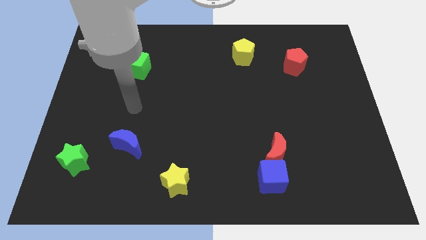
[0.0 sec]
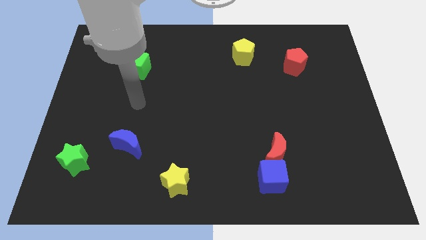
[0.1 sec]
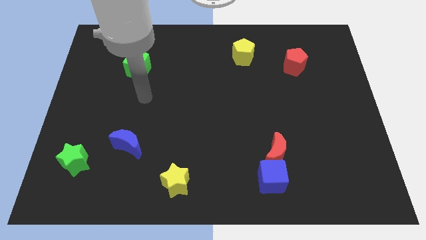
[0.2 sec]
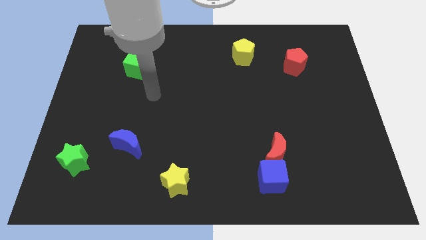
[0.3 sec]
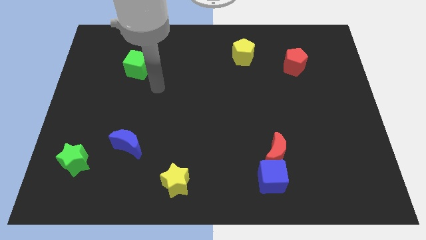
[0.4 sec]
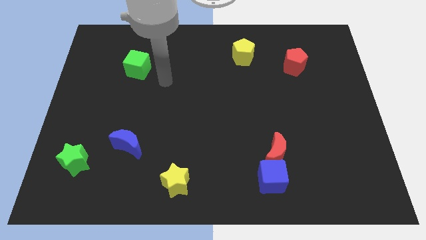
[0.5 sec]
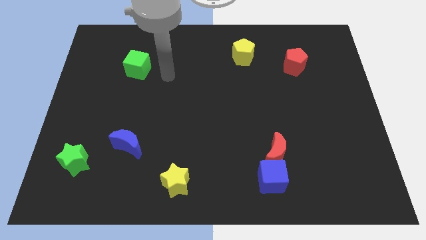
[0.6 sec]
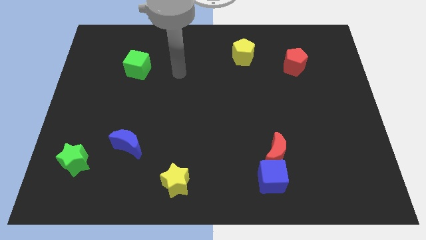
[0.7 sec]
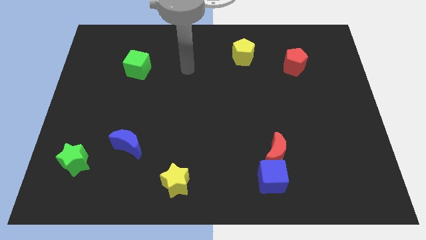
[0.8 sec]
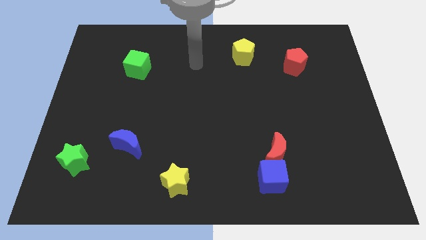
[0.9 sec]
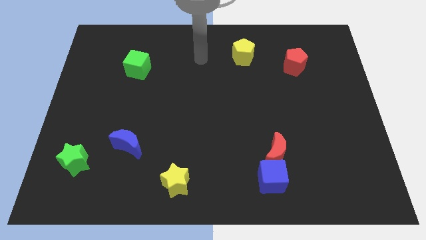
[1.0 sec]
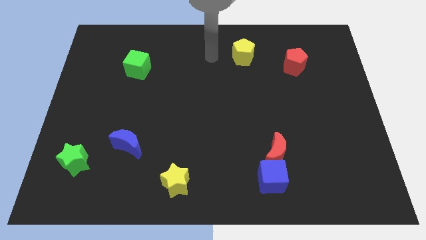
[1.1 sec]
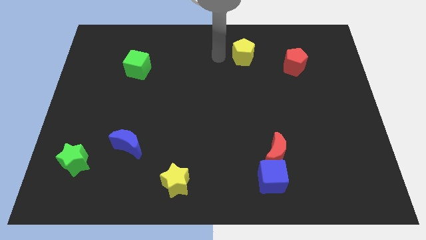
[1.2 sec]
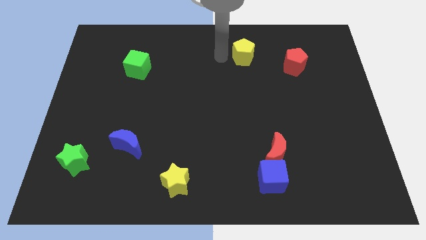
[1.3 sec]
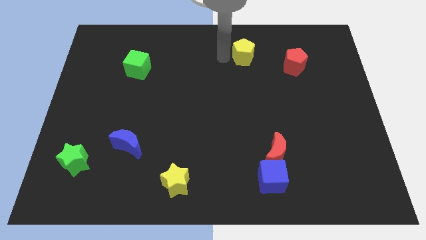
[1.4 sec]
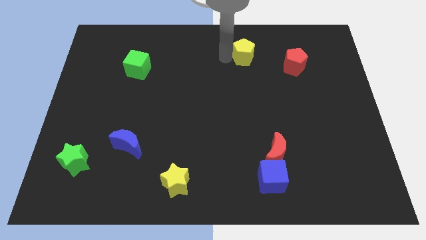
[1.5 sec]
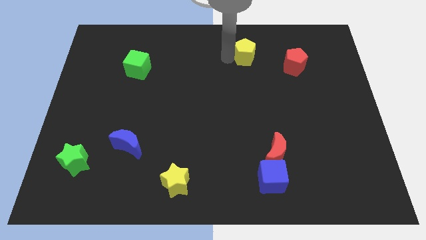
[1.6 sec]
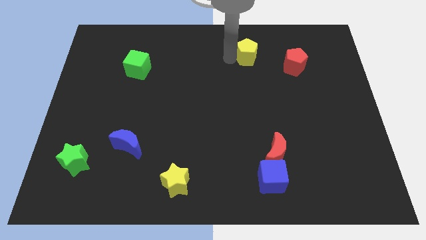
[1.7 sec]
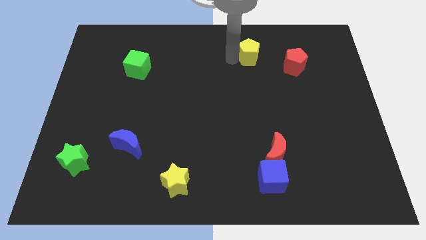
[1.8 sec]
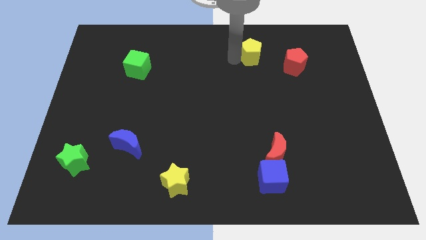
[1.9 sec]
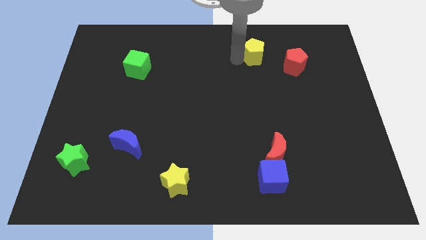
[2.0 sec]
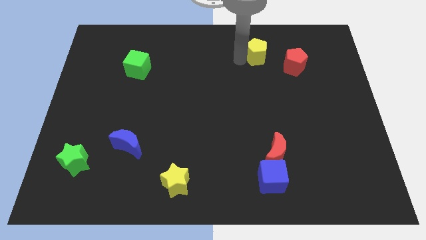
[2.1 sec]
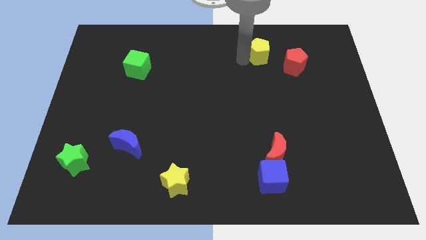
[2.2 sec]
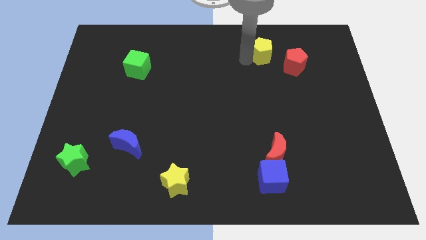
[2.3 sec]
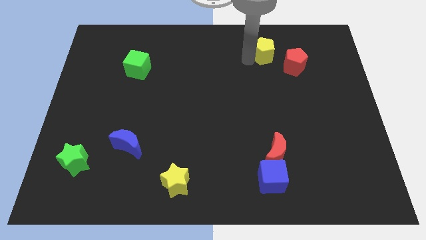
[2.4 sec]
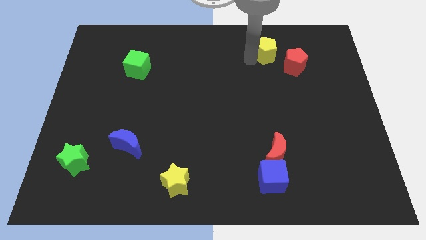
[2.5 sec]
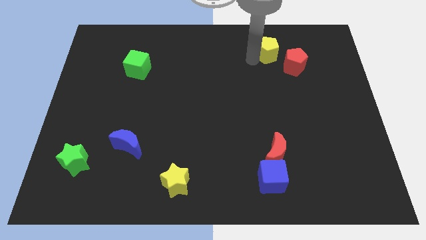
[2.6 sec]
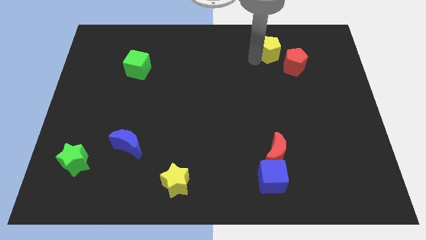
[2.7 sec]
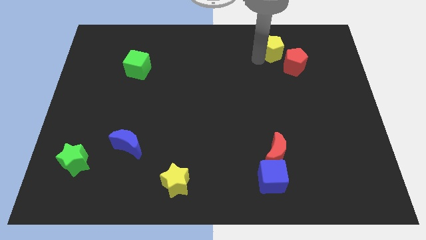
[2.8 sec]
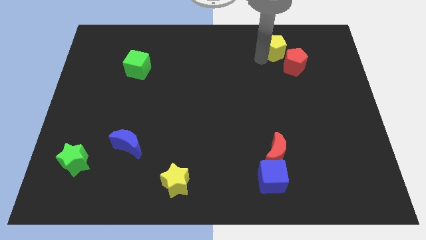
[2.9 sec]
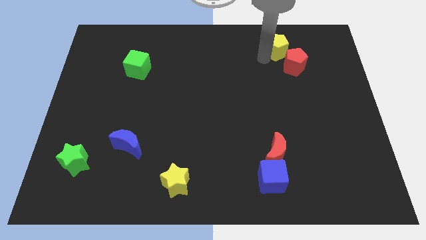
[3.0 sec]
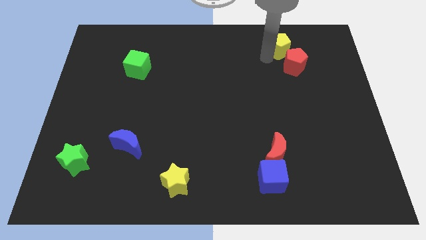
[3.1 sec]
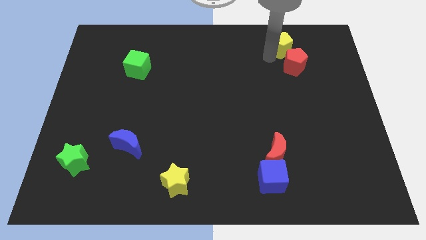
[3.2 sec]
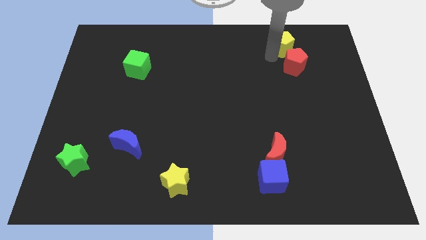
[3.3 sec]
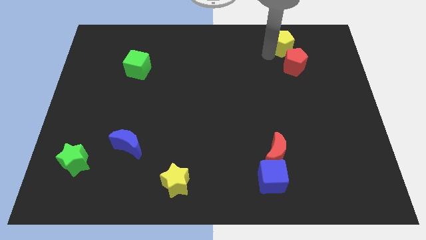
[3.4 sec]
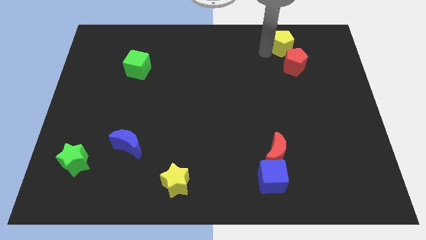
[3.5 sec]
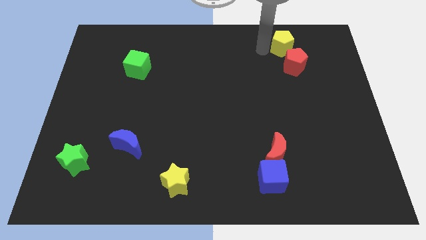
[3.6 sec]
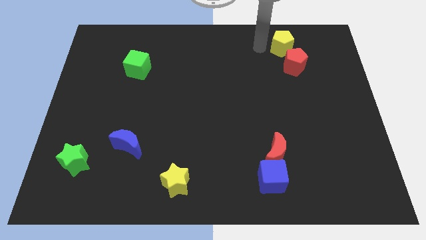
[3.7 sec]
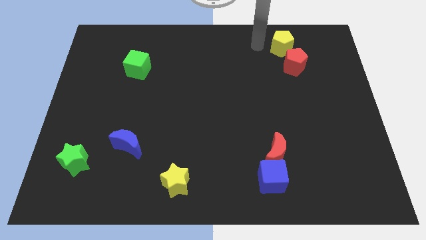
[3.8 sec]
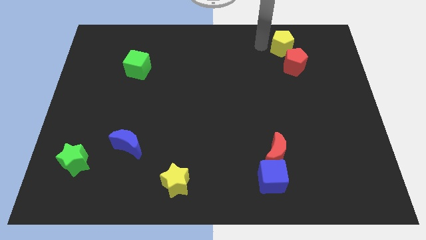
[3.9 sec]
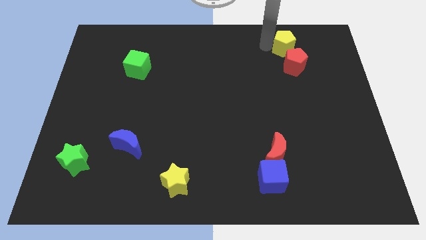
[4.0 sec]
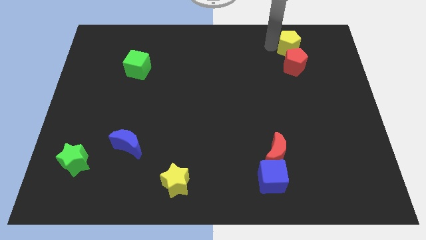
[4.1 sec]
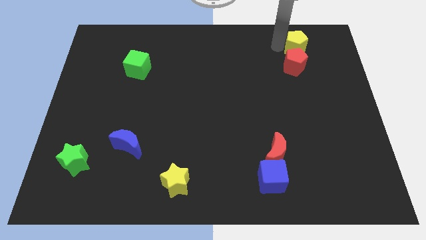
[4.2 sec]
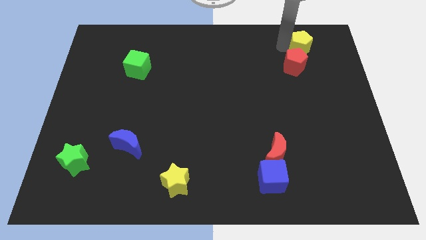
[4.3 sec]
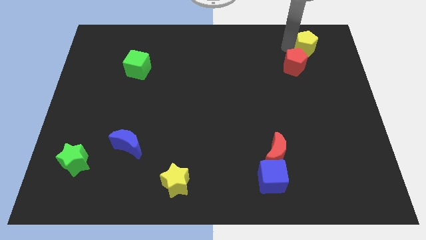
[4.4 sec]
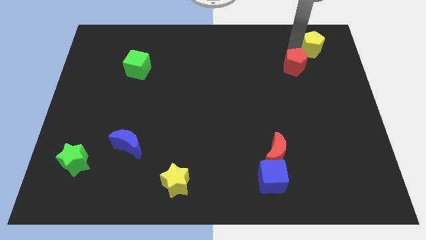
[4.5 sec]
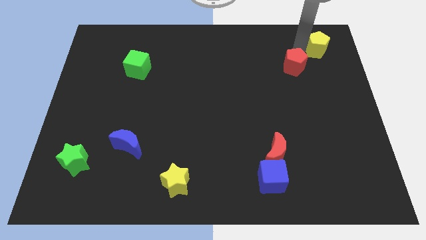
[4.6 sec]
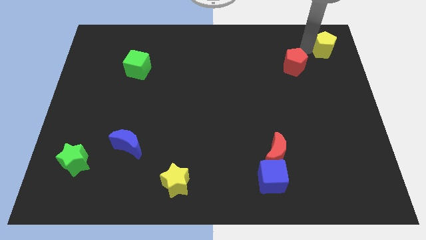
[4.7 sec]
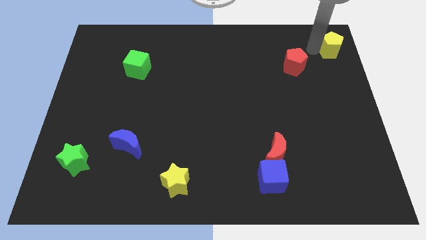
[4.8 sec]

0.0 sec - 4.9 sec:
push the yellow pentagon to the top right corner

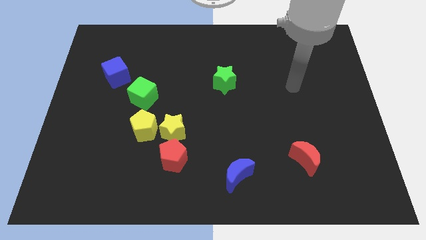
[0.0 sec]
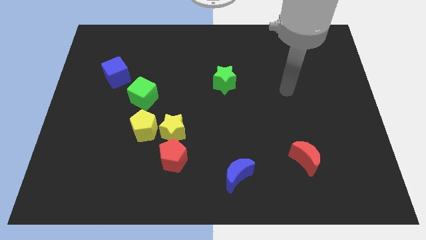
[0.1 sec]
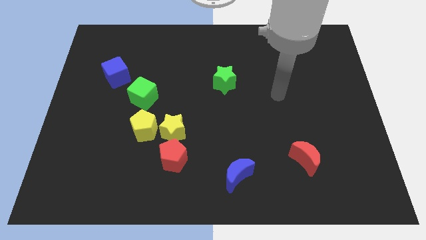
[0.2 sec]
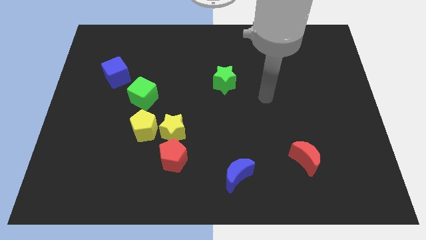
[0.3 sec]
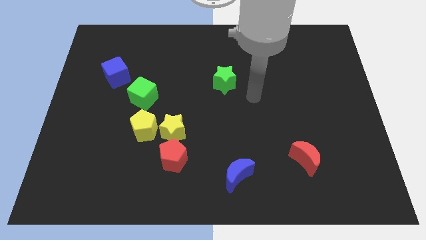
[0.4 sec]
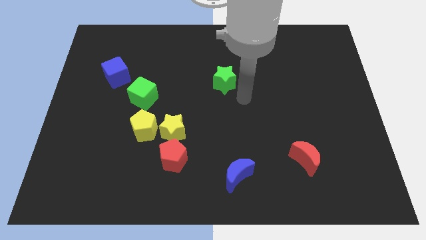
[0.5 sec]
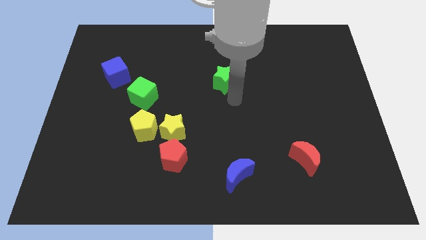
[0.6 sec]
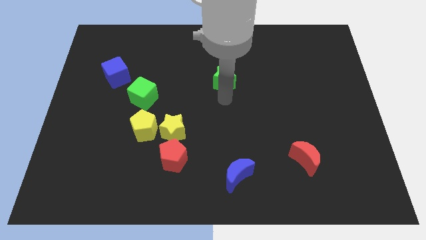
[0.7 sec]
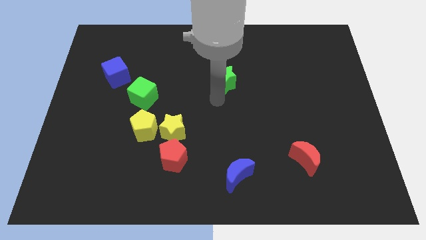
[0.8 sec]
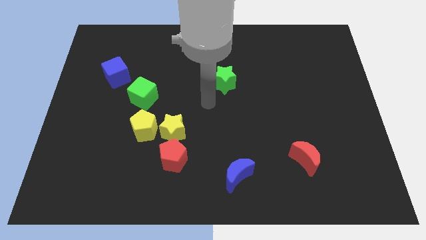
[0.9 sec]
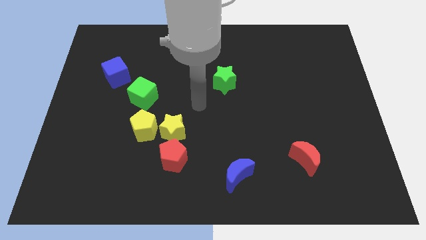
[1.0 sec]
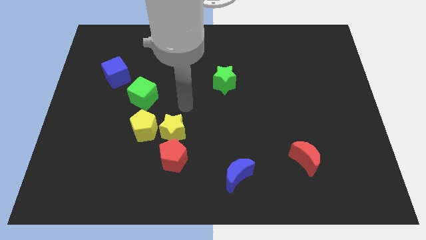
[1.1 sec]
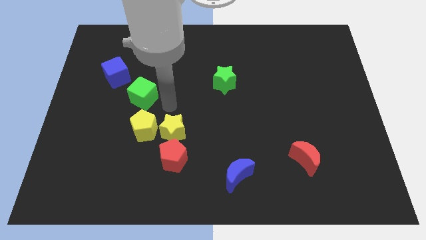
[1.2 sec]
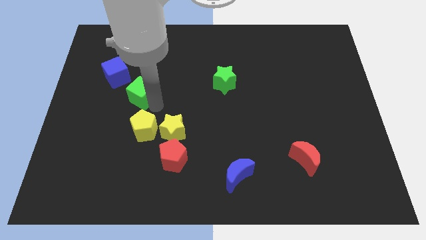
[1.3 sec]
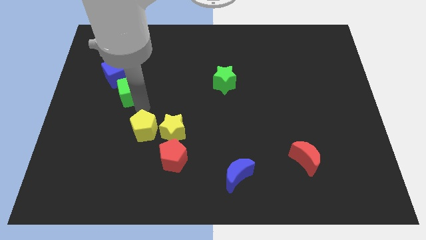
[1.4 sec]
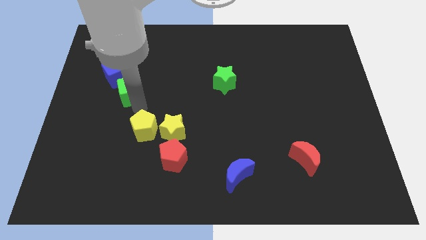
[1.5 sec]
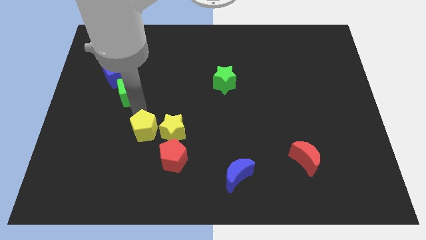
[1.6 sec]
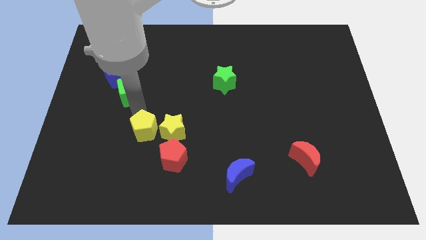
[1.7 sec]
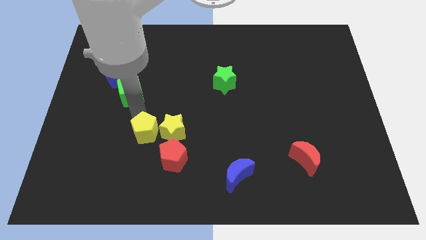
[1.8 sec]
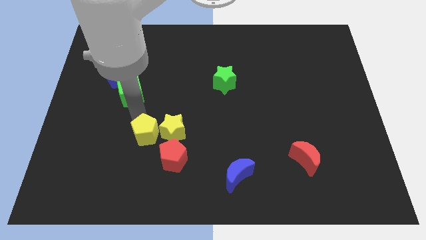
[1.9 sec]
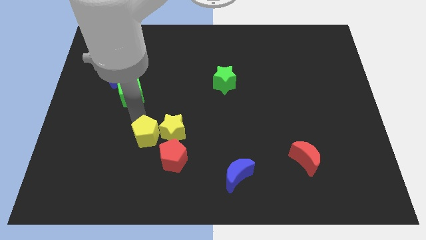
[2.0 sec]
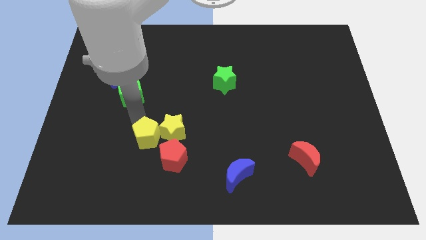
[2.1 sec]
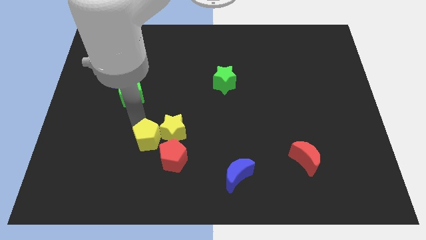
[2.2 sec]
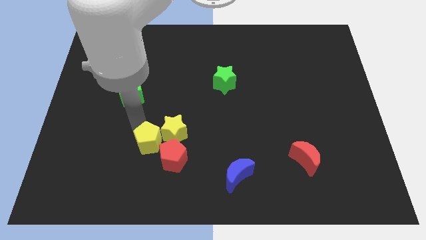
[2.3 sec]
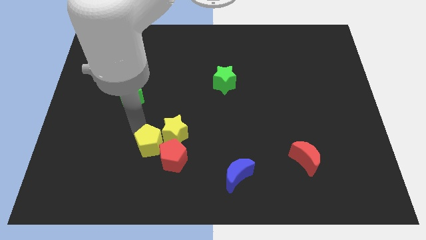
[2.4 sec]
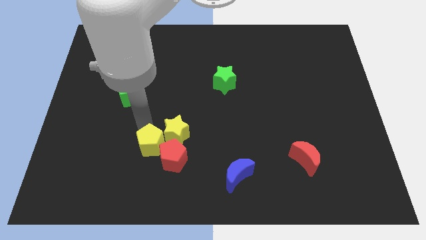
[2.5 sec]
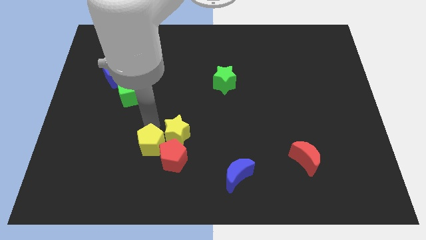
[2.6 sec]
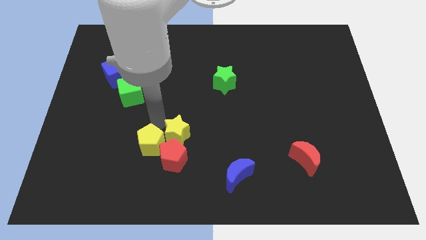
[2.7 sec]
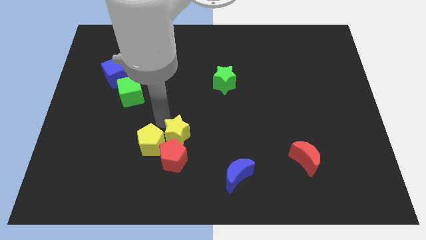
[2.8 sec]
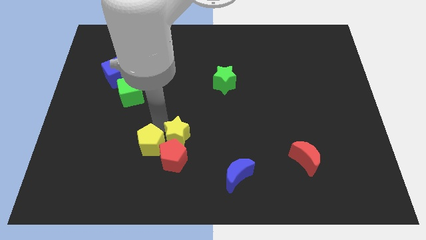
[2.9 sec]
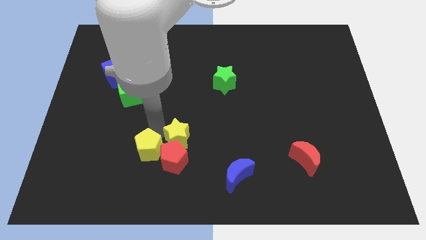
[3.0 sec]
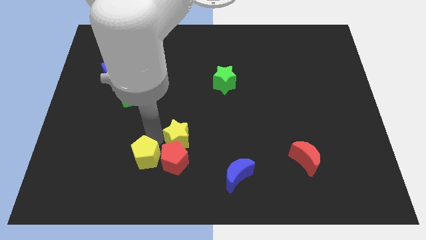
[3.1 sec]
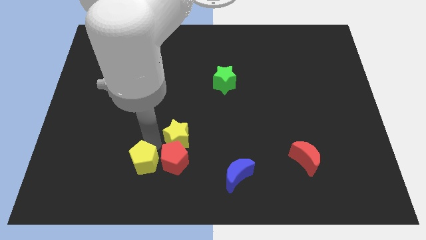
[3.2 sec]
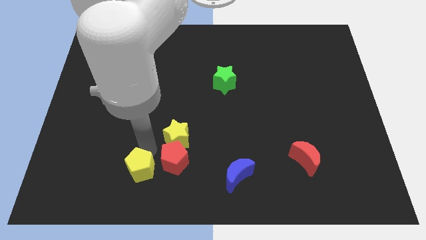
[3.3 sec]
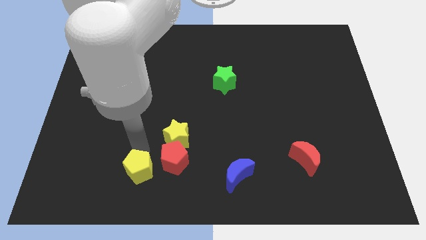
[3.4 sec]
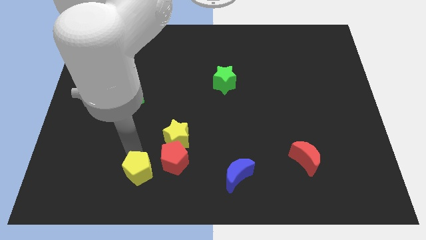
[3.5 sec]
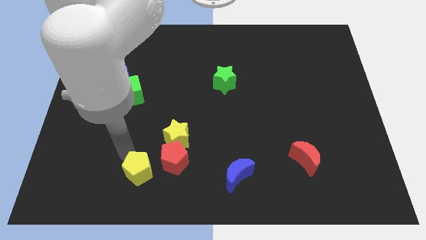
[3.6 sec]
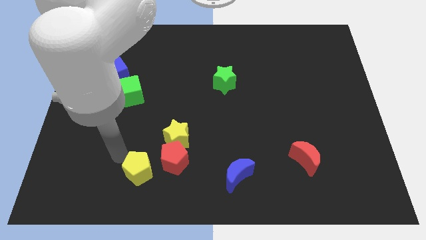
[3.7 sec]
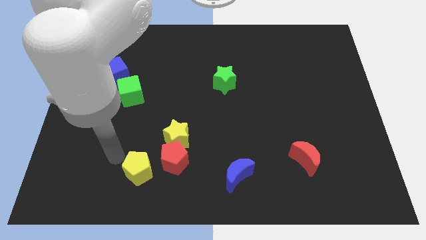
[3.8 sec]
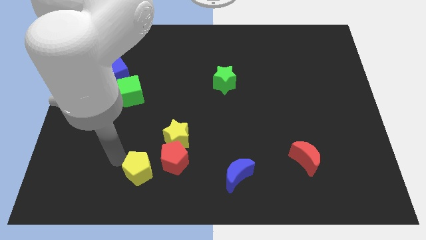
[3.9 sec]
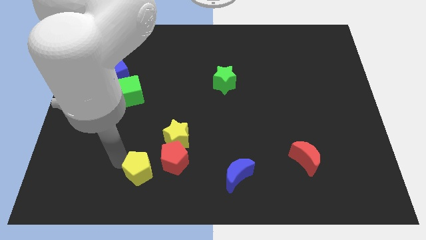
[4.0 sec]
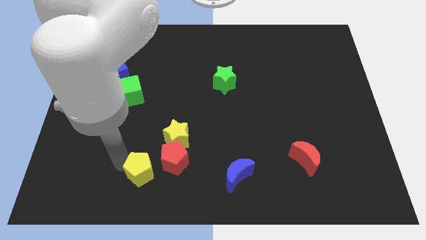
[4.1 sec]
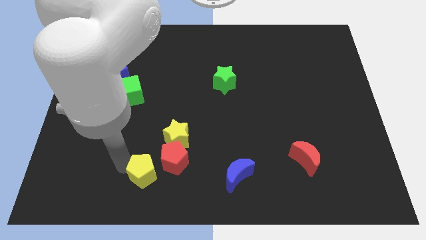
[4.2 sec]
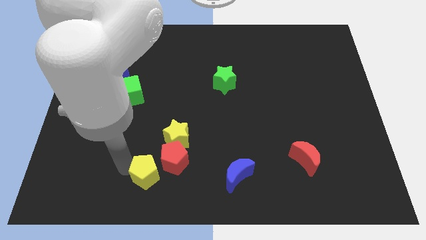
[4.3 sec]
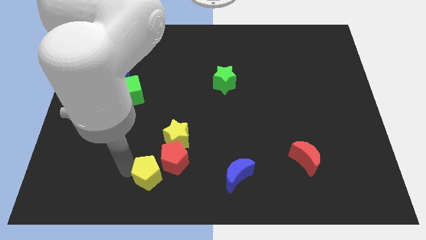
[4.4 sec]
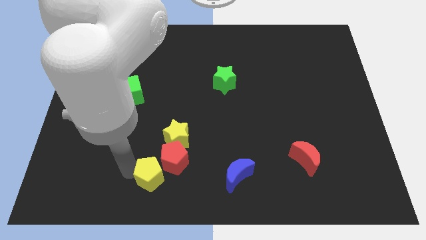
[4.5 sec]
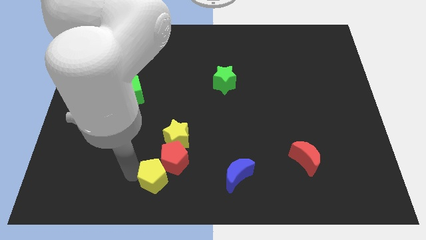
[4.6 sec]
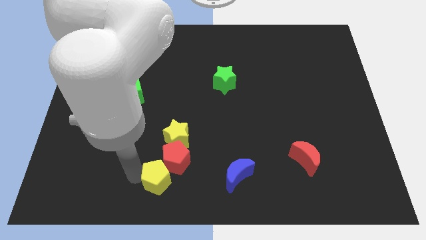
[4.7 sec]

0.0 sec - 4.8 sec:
move the yellow pentagon to the bottom side
